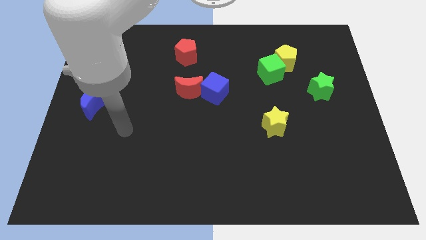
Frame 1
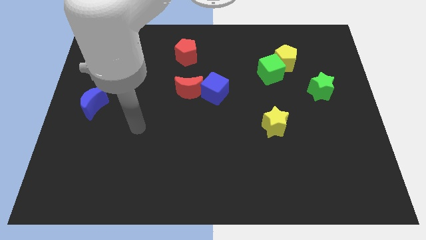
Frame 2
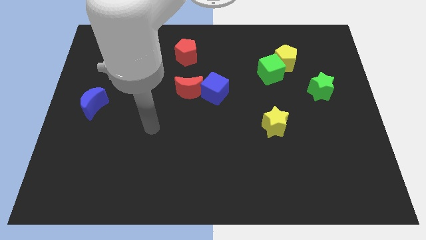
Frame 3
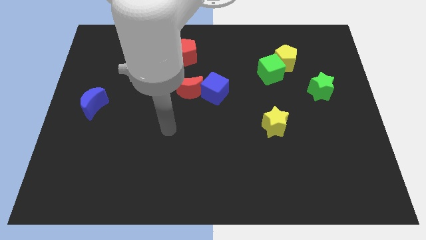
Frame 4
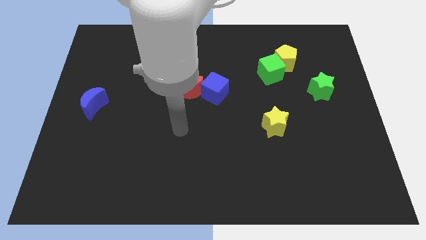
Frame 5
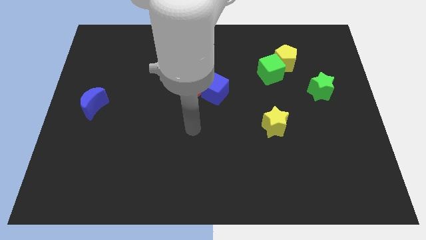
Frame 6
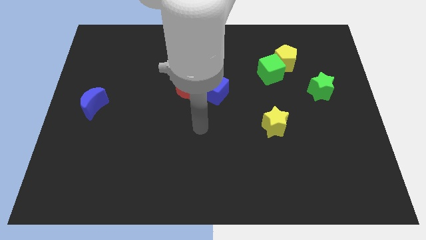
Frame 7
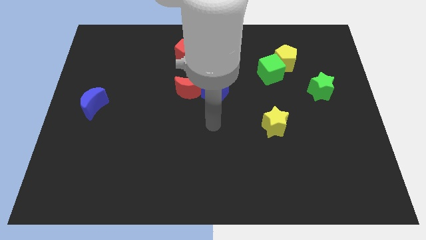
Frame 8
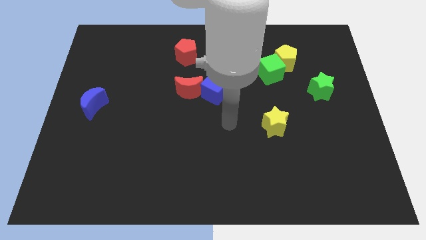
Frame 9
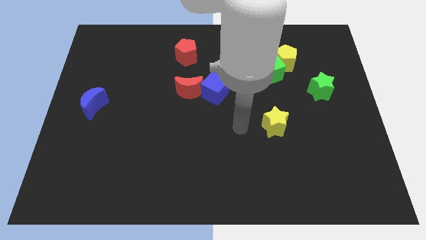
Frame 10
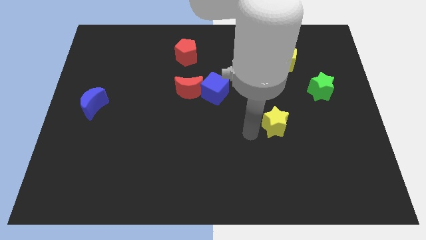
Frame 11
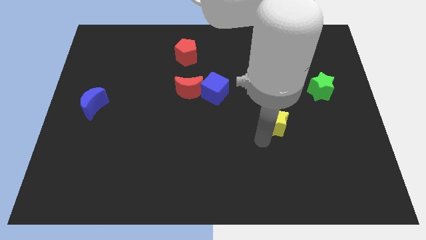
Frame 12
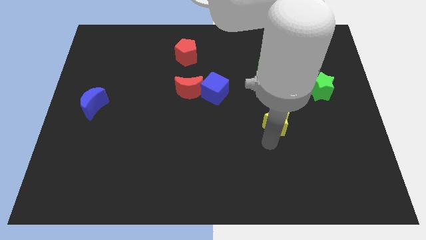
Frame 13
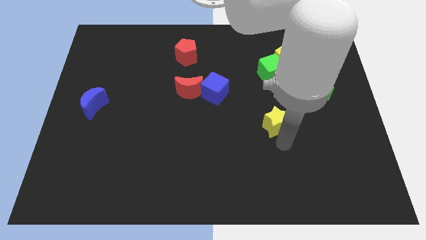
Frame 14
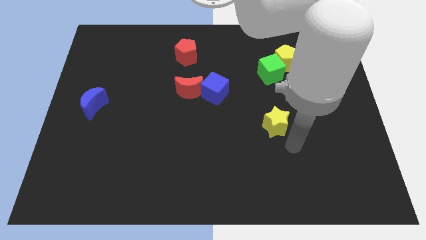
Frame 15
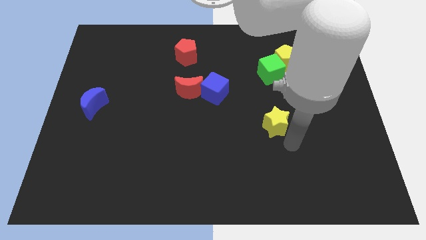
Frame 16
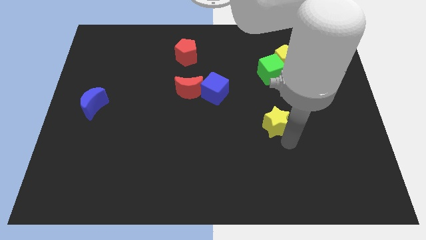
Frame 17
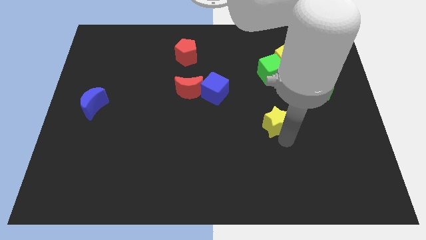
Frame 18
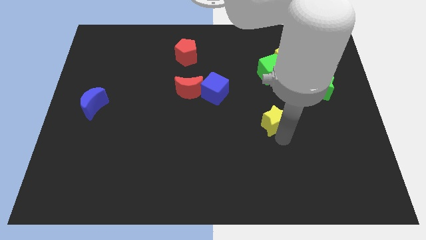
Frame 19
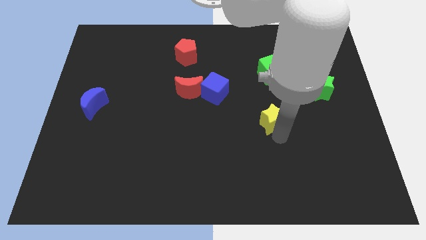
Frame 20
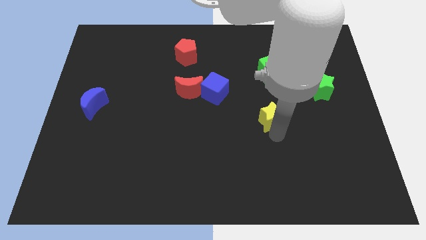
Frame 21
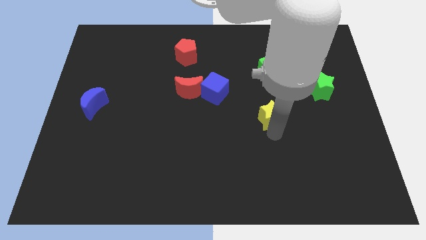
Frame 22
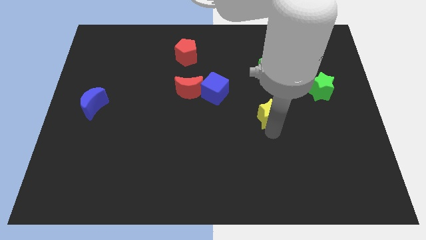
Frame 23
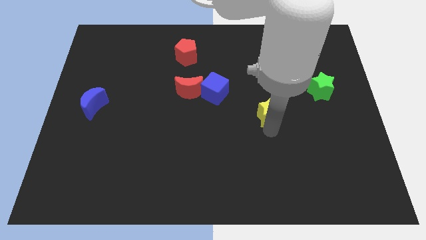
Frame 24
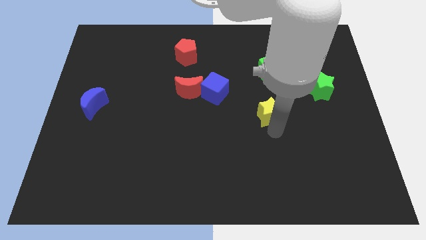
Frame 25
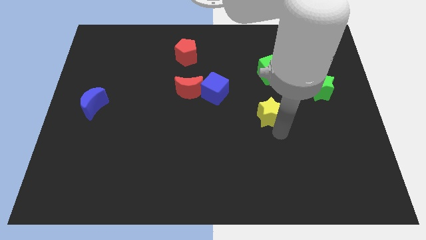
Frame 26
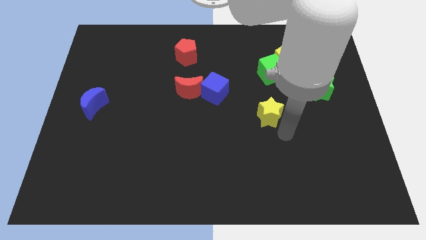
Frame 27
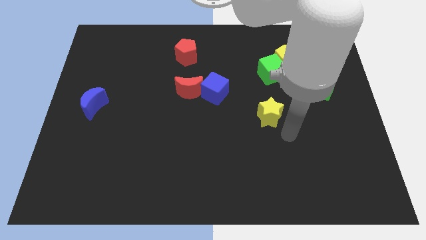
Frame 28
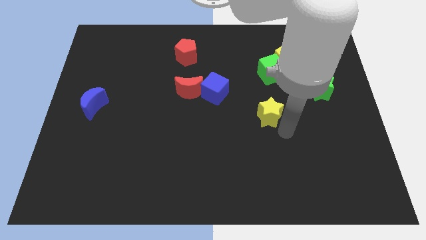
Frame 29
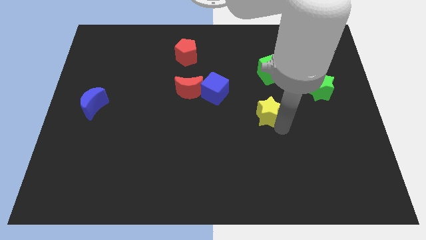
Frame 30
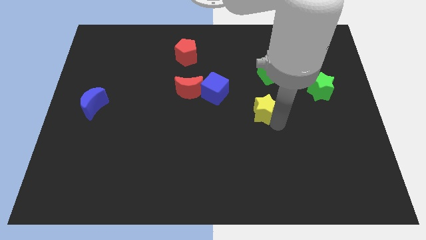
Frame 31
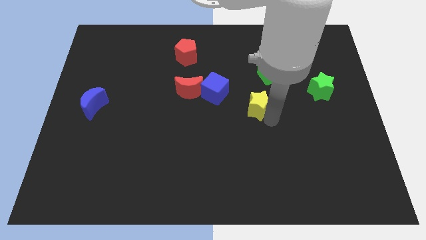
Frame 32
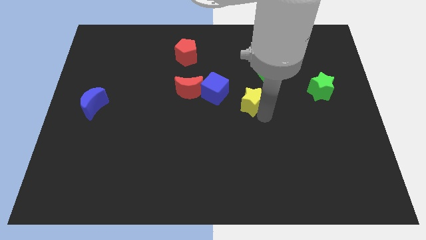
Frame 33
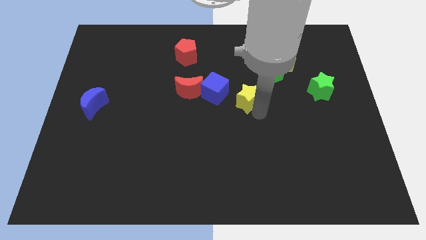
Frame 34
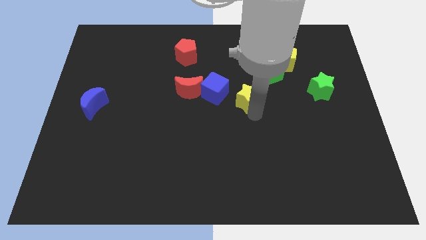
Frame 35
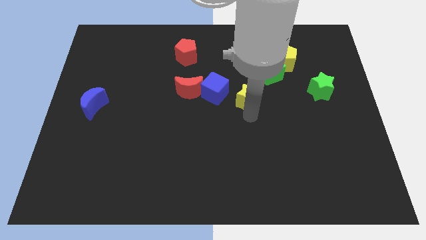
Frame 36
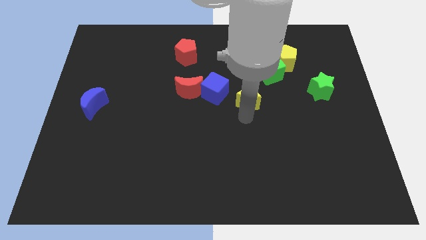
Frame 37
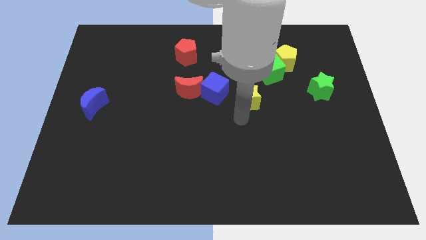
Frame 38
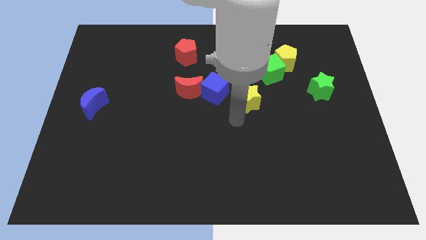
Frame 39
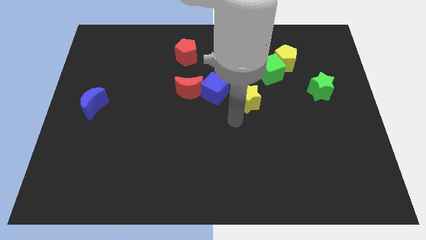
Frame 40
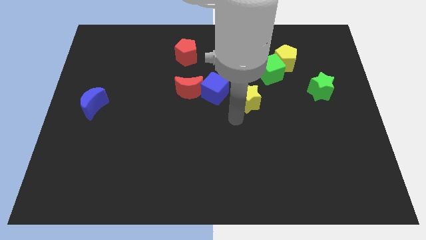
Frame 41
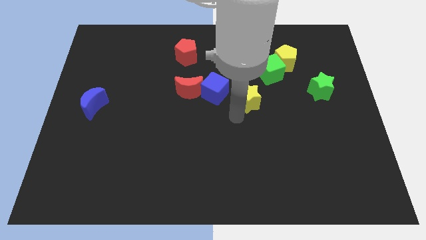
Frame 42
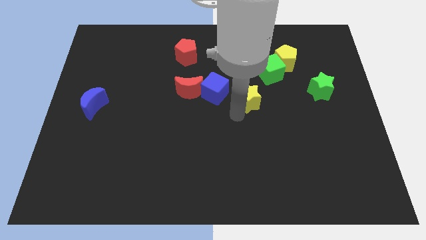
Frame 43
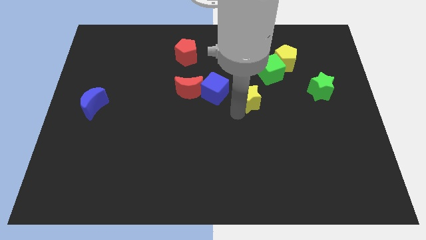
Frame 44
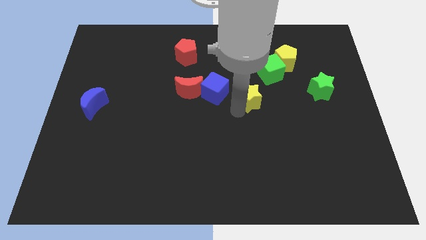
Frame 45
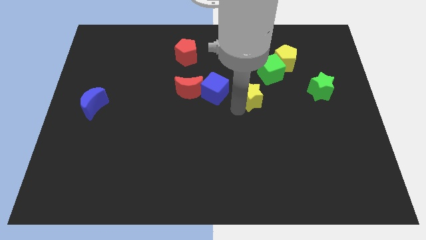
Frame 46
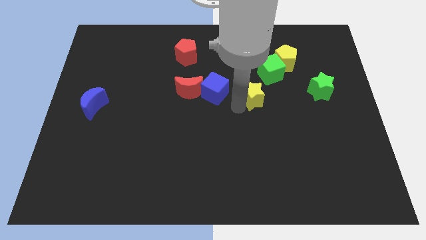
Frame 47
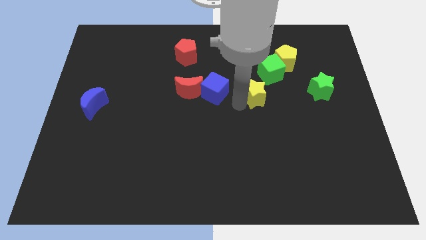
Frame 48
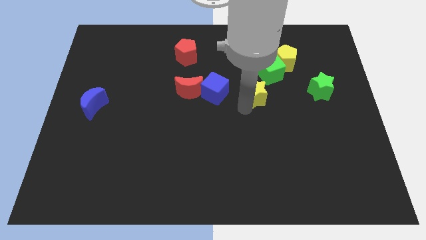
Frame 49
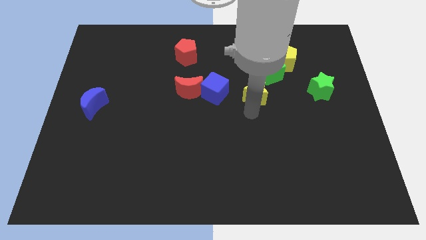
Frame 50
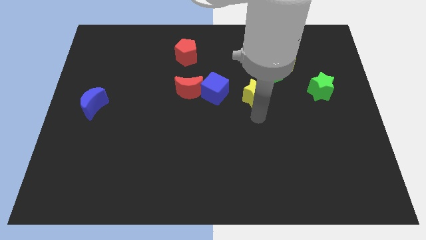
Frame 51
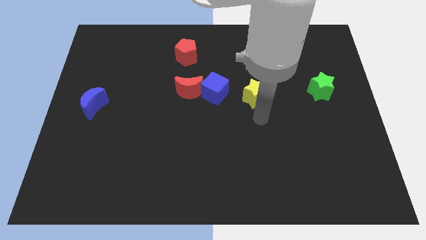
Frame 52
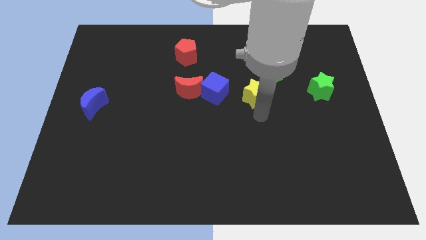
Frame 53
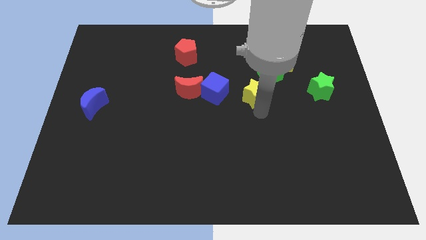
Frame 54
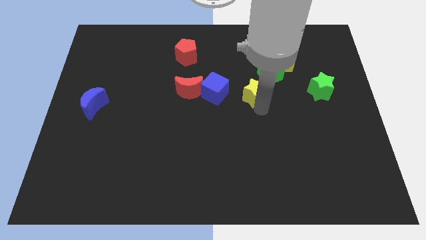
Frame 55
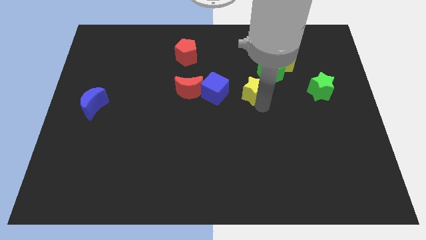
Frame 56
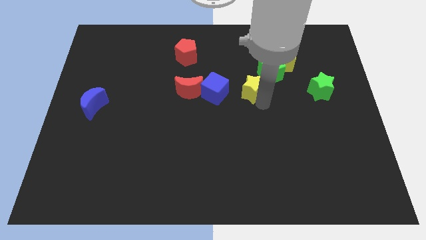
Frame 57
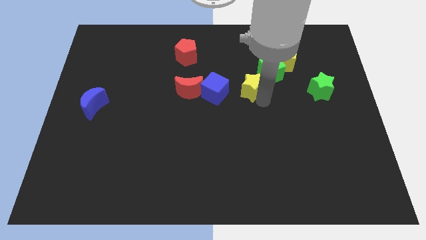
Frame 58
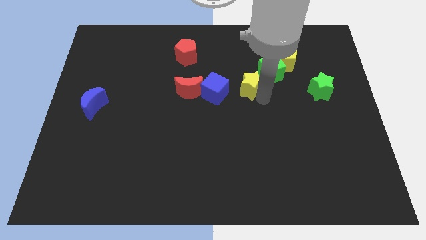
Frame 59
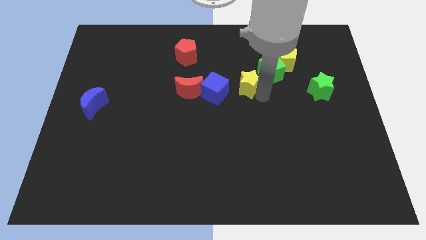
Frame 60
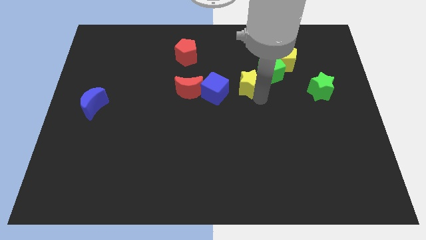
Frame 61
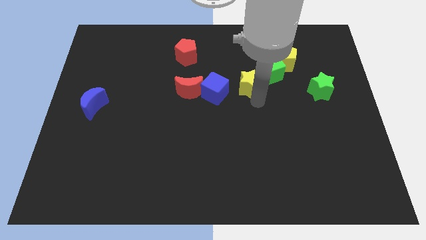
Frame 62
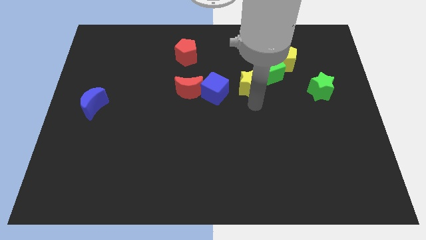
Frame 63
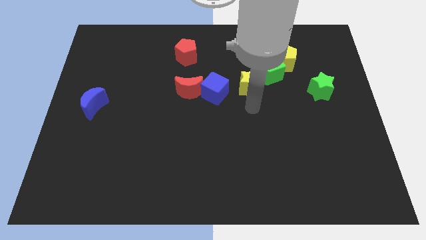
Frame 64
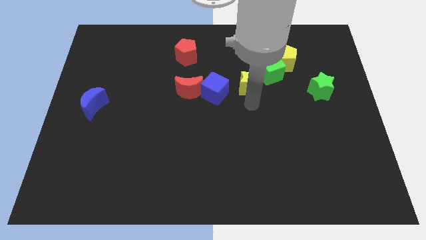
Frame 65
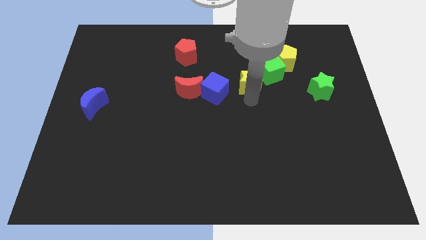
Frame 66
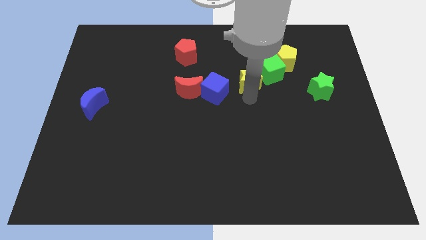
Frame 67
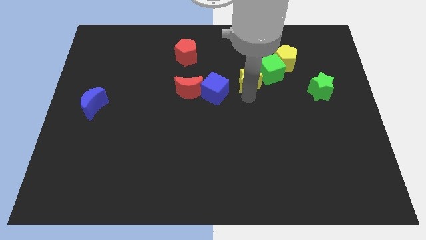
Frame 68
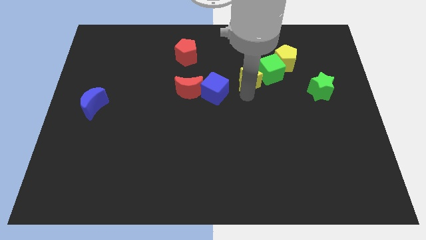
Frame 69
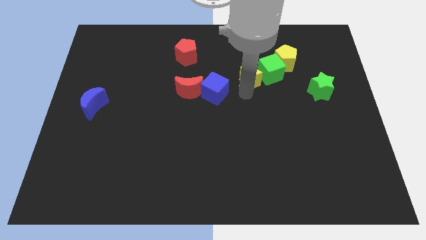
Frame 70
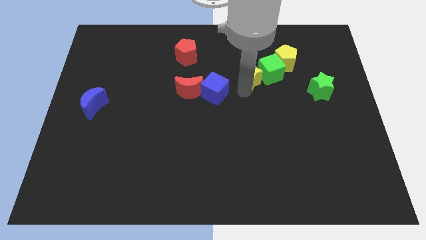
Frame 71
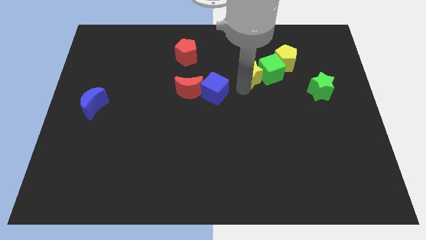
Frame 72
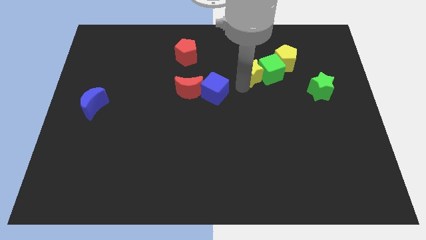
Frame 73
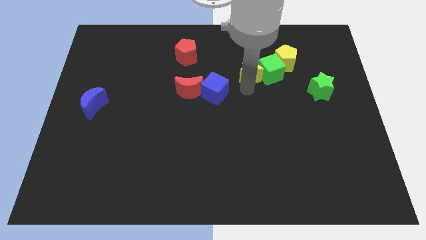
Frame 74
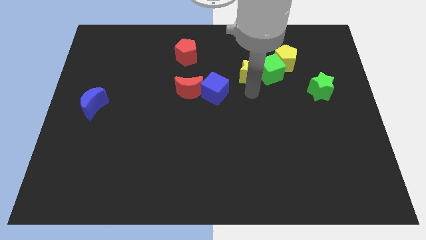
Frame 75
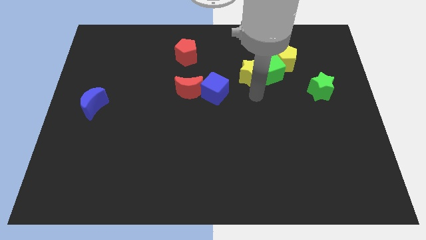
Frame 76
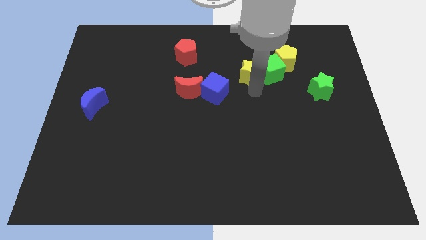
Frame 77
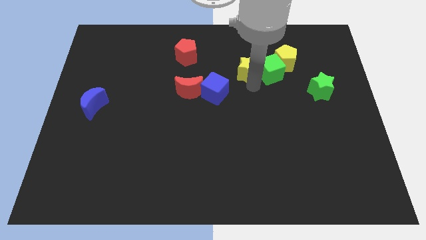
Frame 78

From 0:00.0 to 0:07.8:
slide the yellow star to the left of the yellow pentagon
